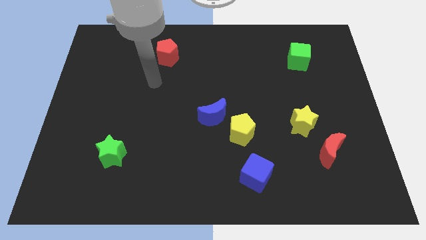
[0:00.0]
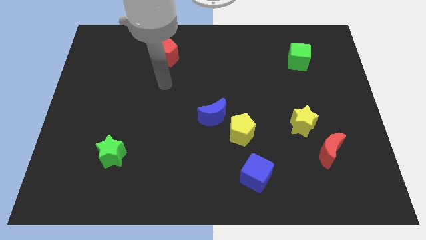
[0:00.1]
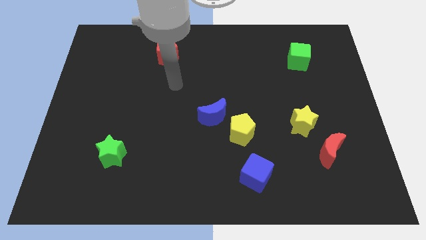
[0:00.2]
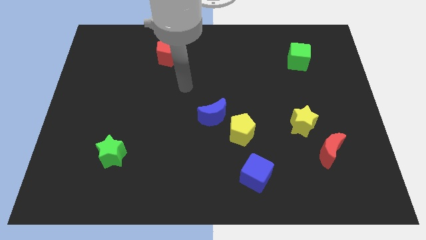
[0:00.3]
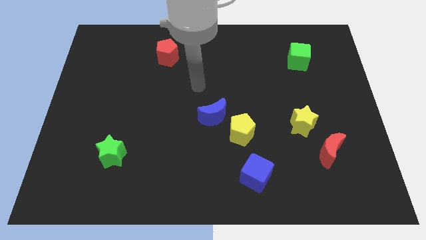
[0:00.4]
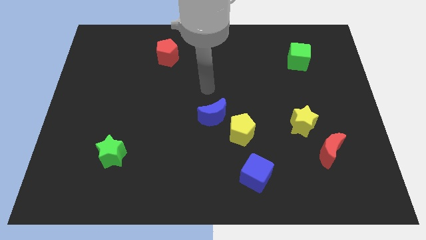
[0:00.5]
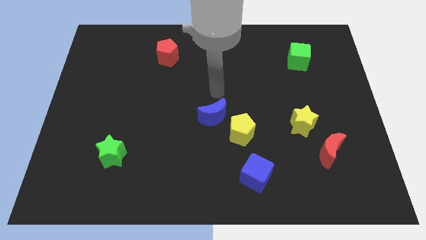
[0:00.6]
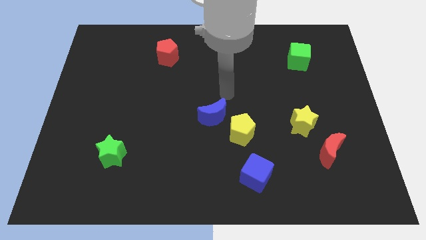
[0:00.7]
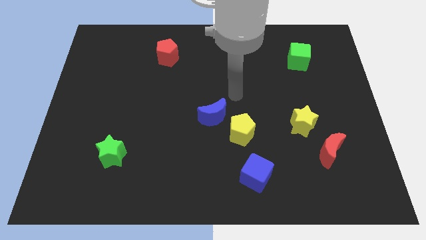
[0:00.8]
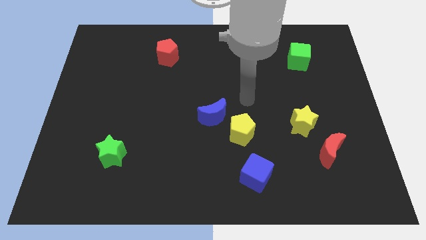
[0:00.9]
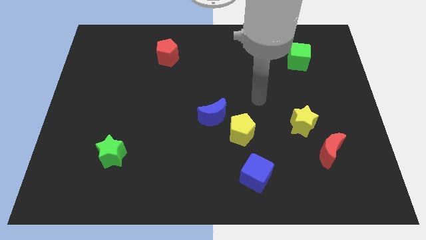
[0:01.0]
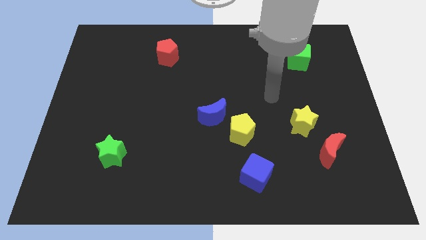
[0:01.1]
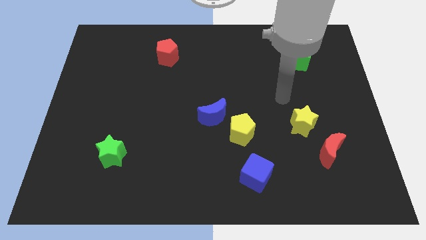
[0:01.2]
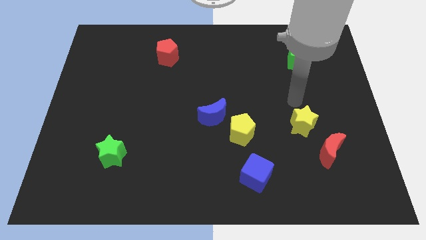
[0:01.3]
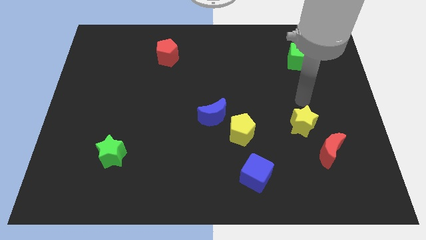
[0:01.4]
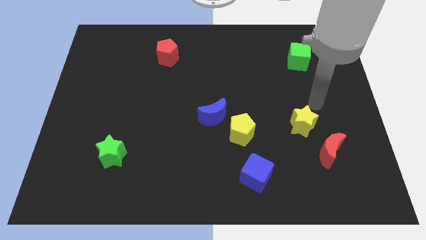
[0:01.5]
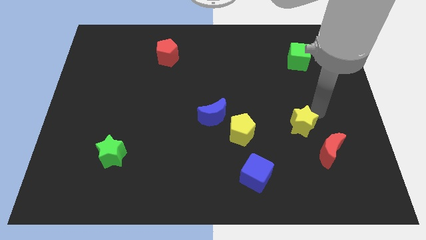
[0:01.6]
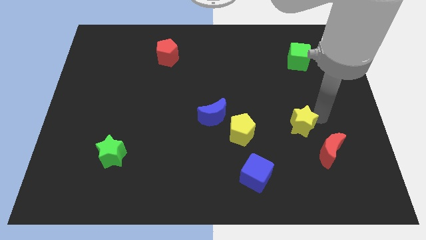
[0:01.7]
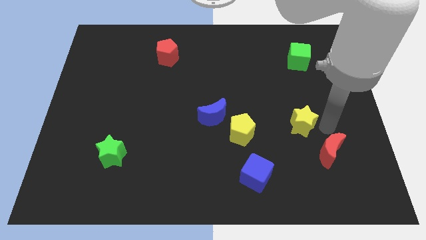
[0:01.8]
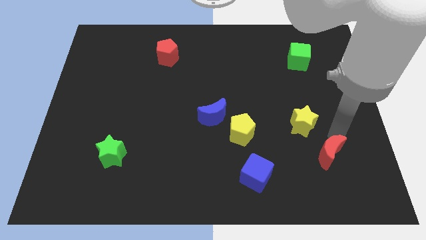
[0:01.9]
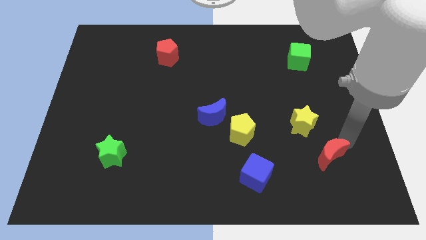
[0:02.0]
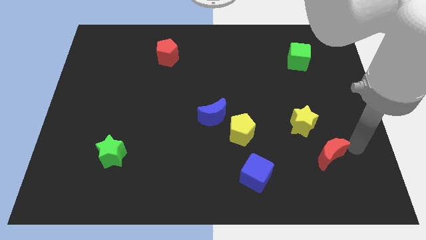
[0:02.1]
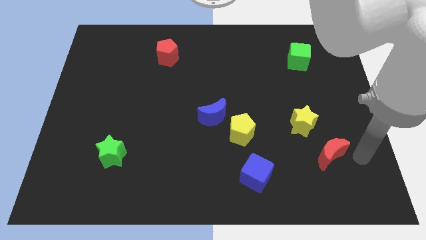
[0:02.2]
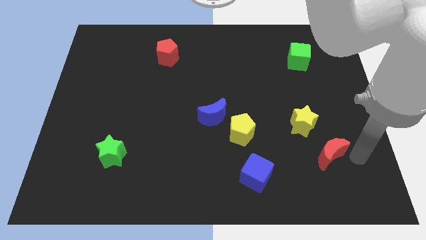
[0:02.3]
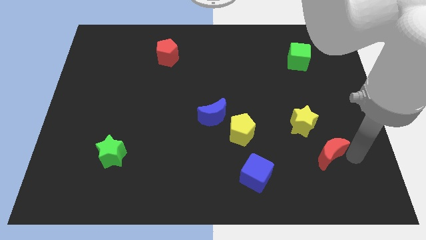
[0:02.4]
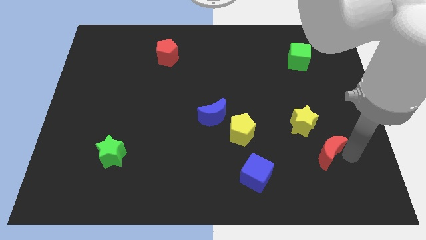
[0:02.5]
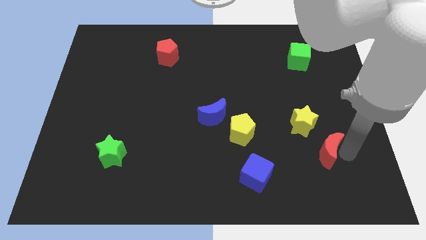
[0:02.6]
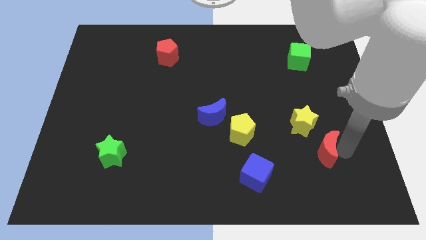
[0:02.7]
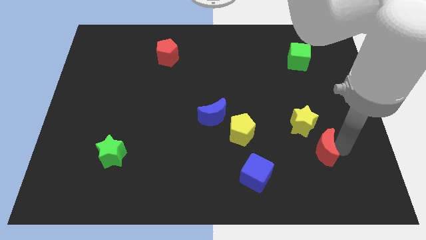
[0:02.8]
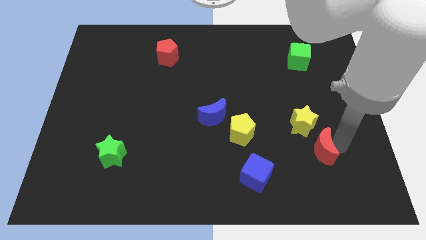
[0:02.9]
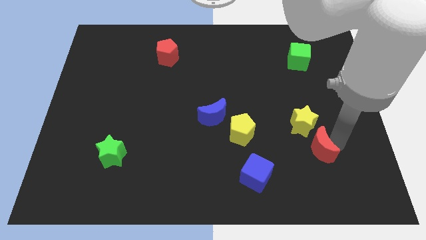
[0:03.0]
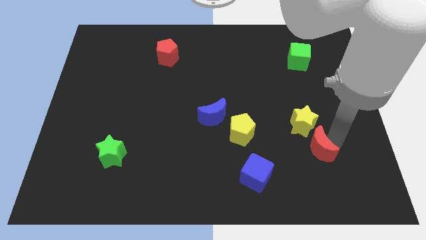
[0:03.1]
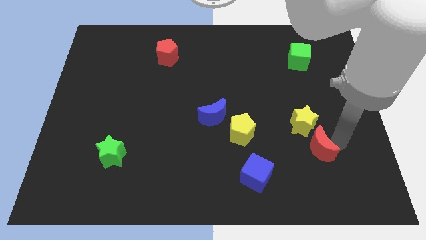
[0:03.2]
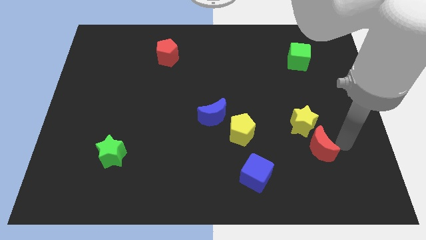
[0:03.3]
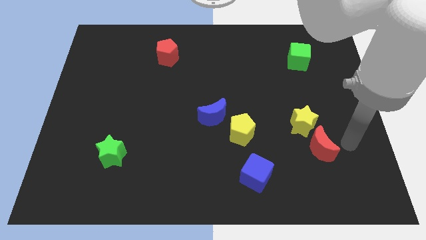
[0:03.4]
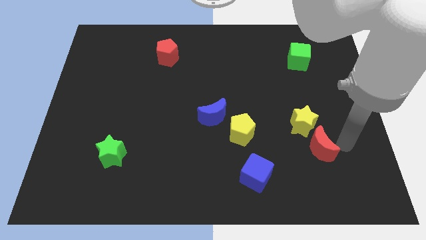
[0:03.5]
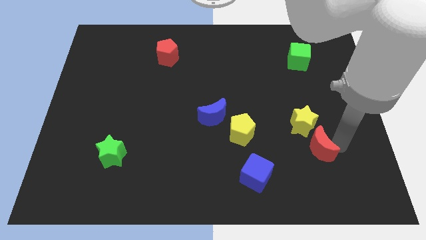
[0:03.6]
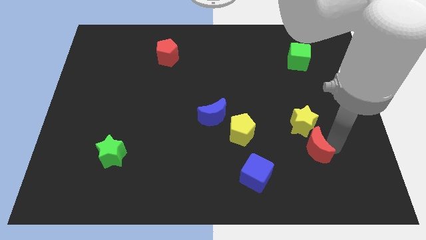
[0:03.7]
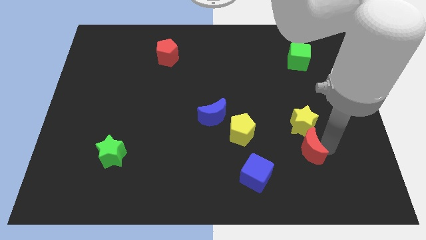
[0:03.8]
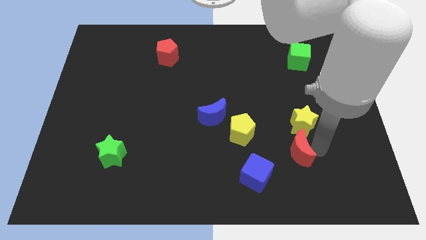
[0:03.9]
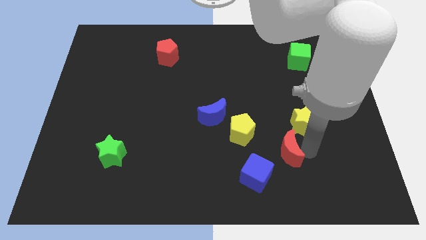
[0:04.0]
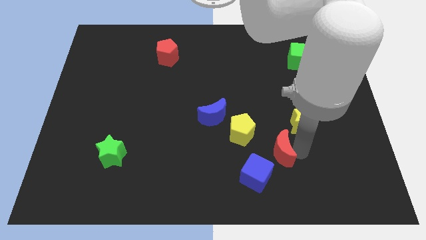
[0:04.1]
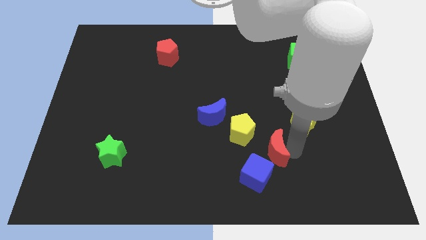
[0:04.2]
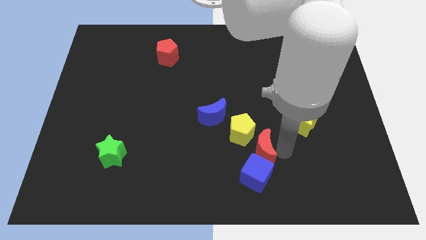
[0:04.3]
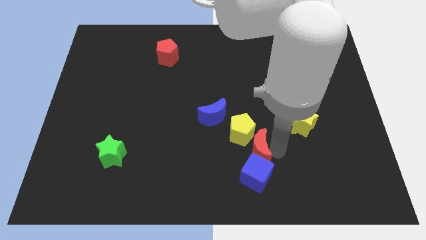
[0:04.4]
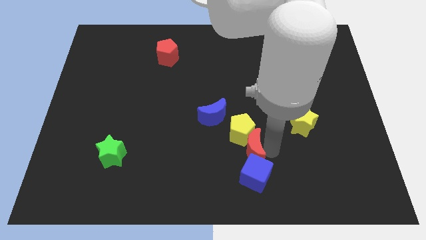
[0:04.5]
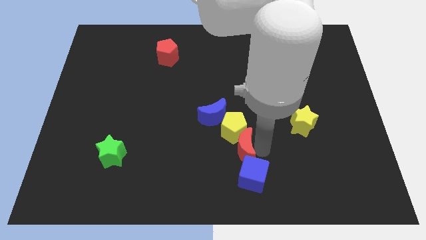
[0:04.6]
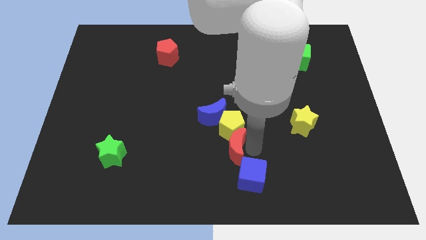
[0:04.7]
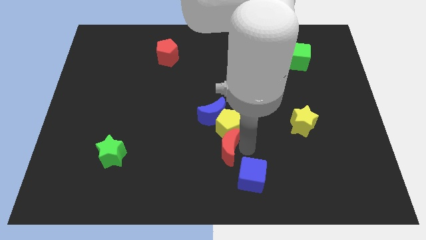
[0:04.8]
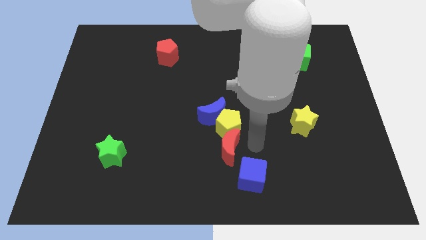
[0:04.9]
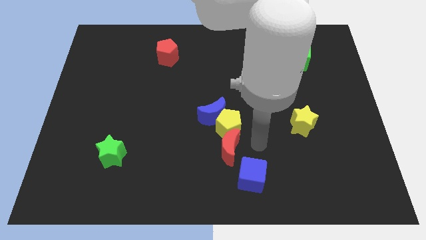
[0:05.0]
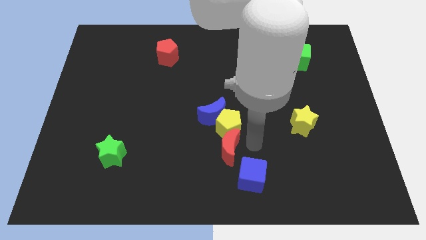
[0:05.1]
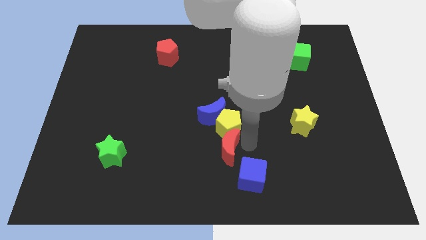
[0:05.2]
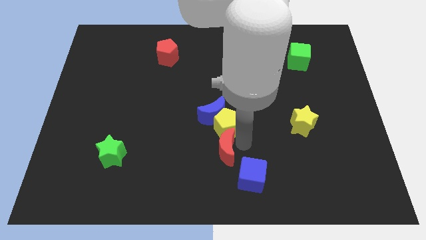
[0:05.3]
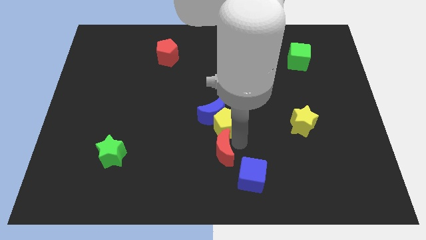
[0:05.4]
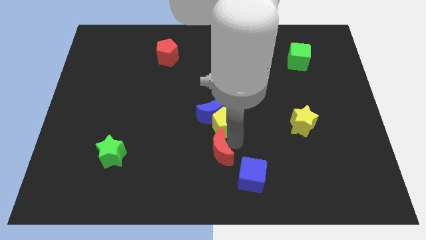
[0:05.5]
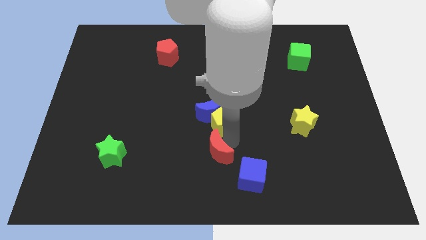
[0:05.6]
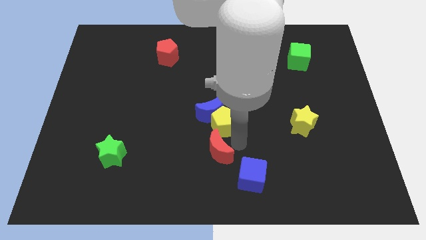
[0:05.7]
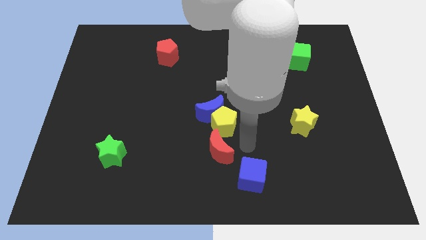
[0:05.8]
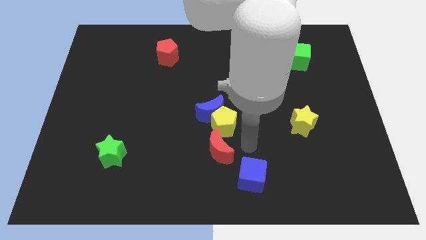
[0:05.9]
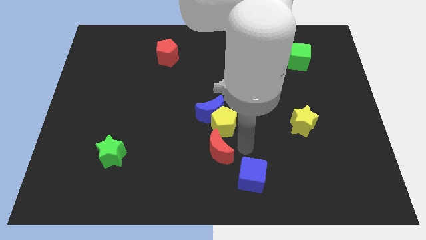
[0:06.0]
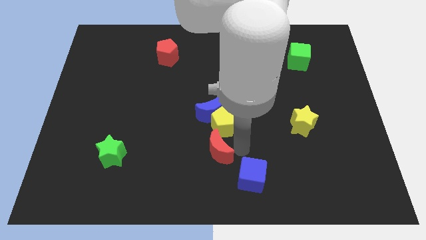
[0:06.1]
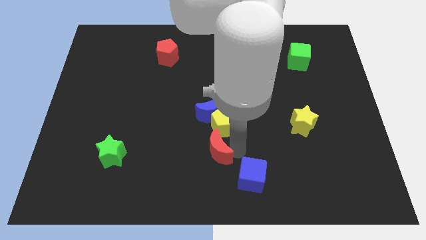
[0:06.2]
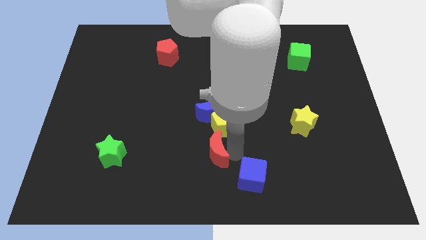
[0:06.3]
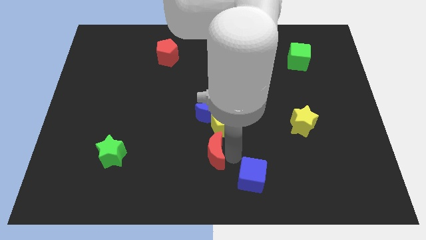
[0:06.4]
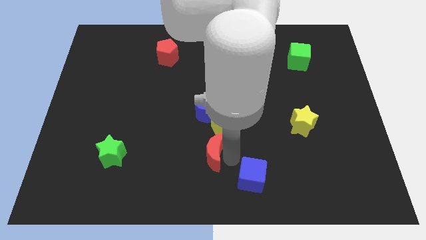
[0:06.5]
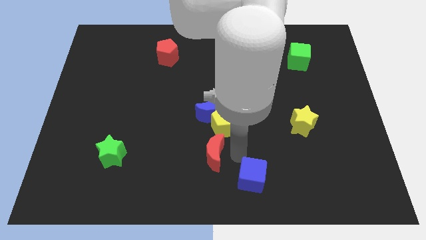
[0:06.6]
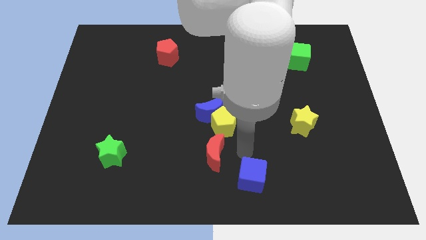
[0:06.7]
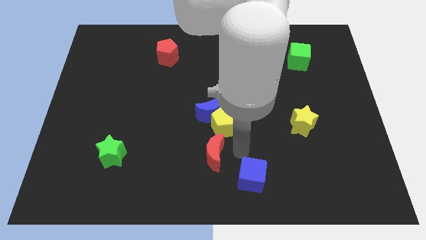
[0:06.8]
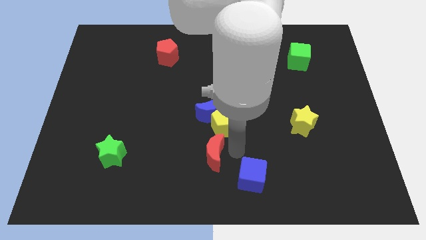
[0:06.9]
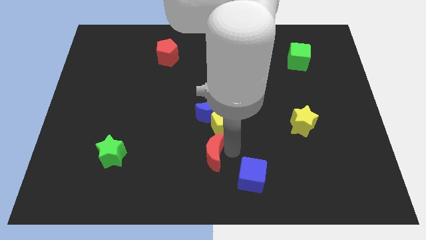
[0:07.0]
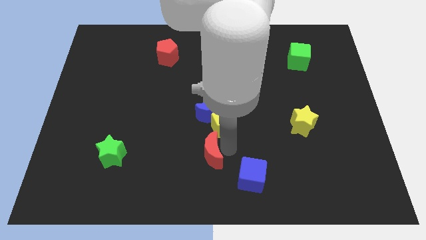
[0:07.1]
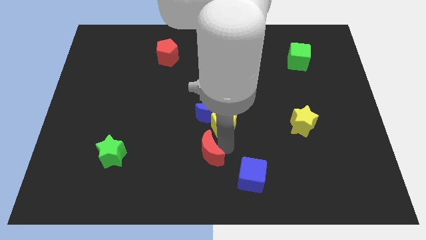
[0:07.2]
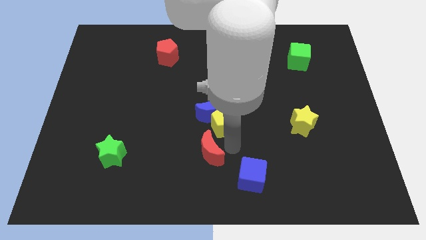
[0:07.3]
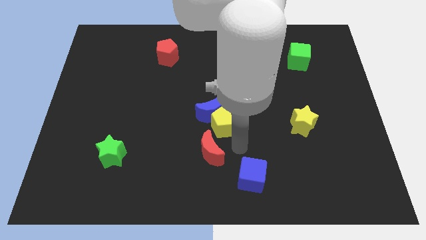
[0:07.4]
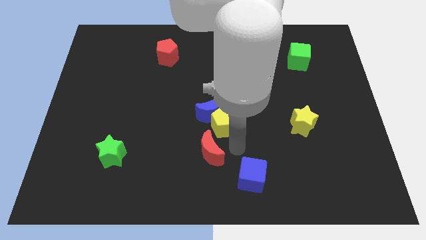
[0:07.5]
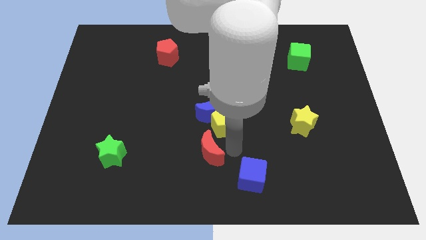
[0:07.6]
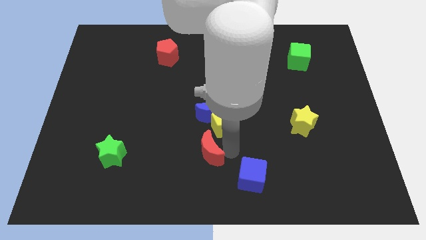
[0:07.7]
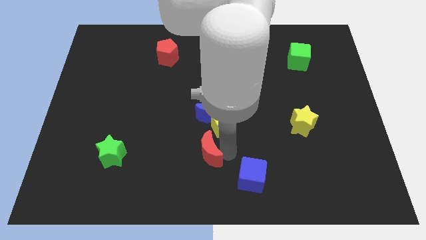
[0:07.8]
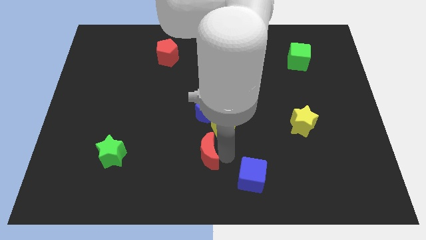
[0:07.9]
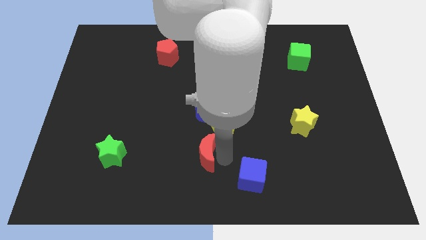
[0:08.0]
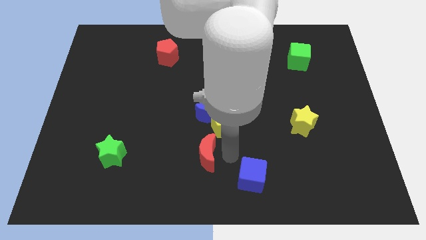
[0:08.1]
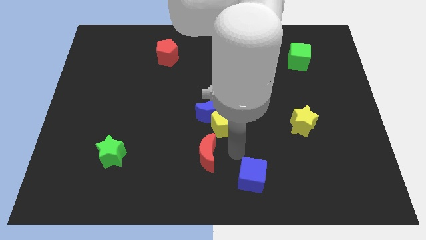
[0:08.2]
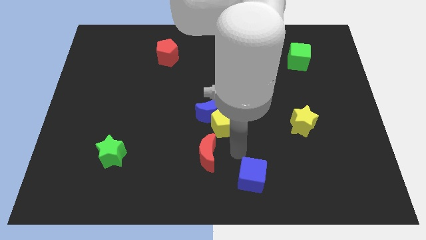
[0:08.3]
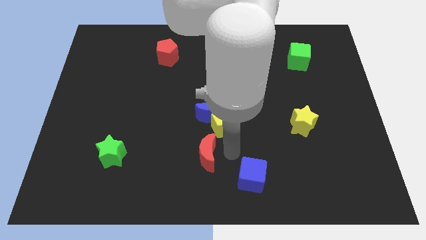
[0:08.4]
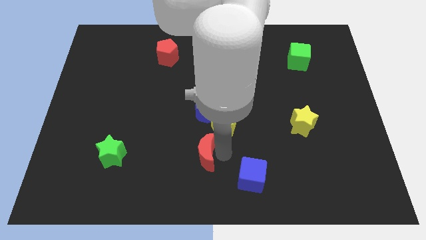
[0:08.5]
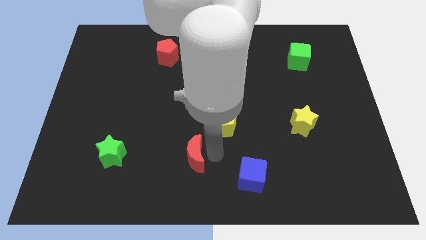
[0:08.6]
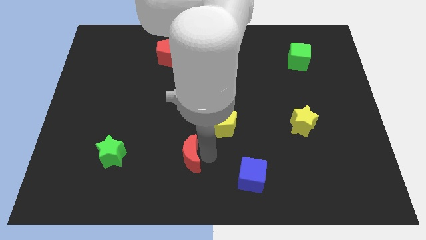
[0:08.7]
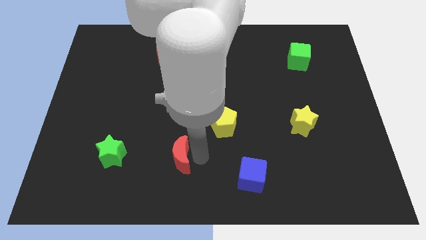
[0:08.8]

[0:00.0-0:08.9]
put the red moon right of the green star
